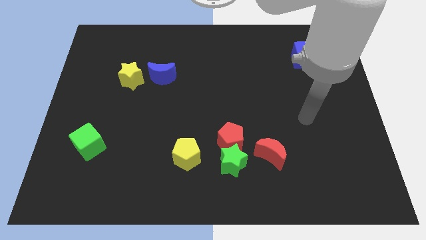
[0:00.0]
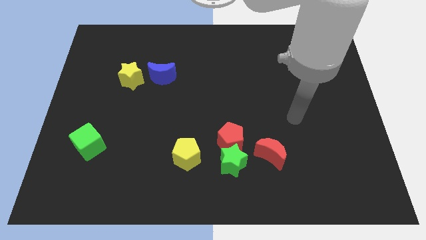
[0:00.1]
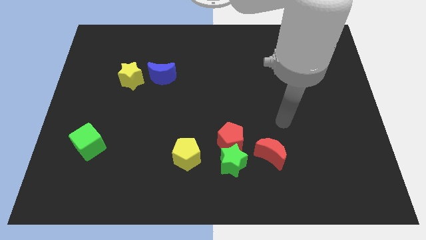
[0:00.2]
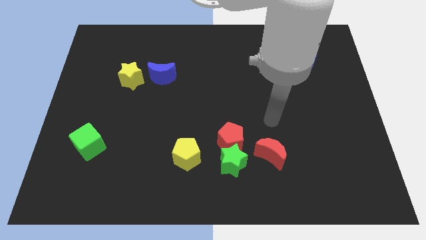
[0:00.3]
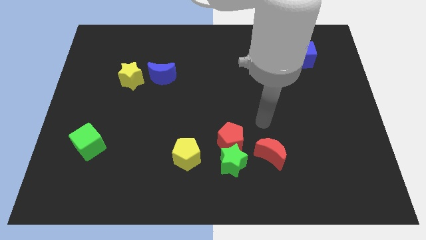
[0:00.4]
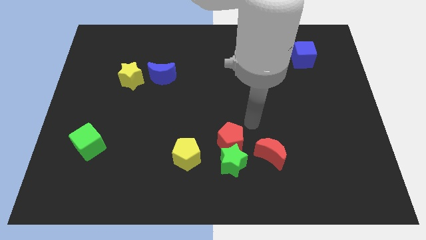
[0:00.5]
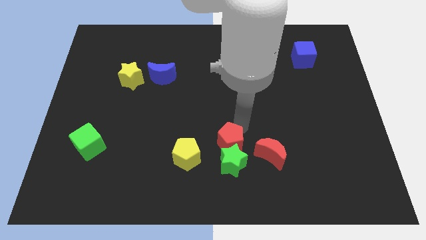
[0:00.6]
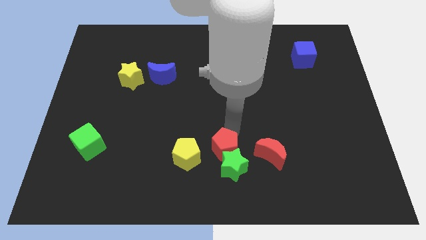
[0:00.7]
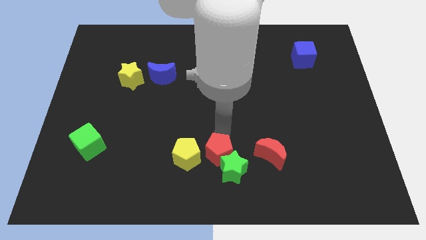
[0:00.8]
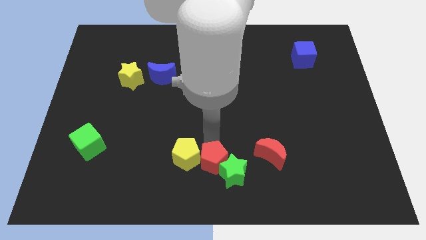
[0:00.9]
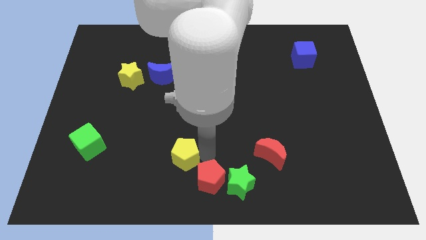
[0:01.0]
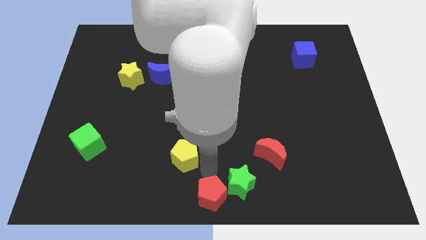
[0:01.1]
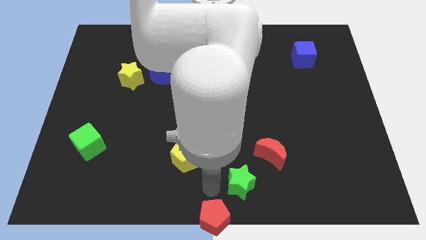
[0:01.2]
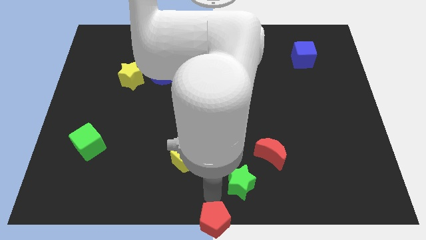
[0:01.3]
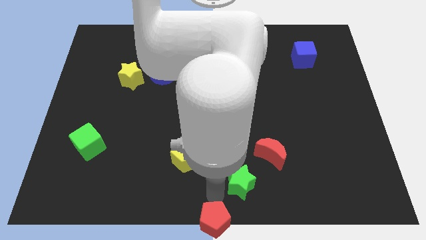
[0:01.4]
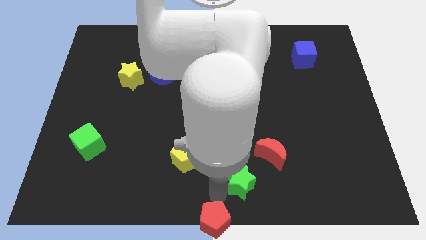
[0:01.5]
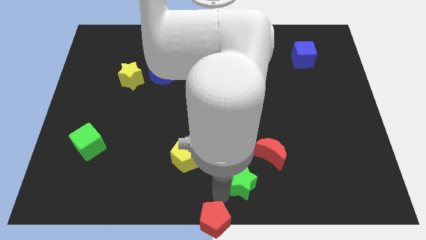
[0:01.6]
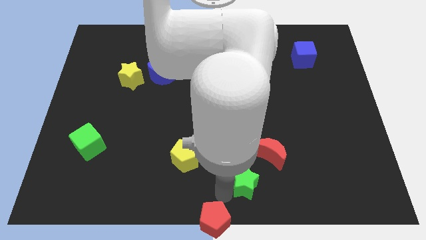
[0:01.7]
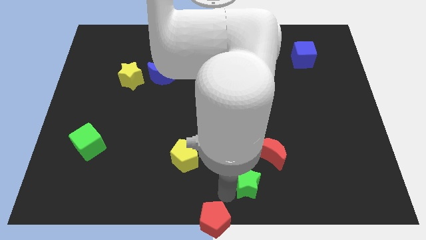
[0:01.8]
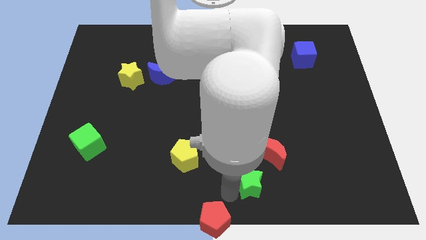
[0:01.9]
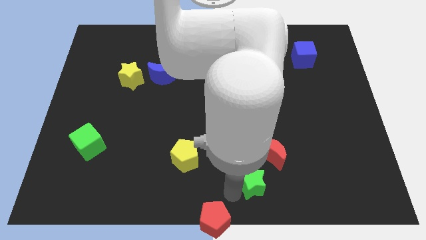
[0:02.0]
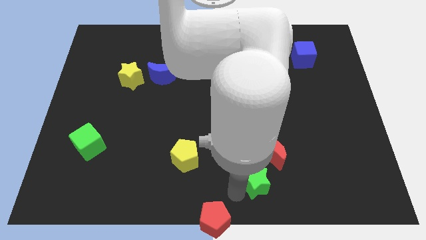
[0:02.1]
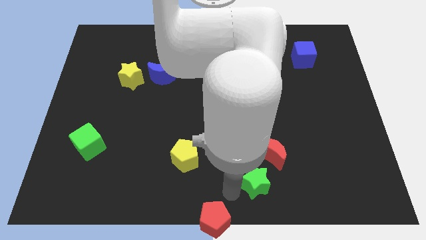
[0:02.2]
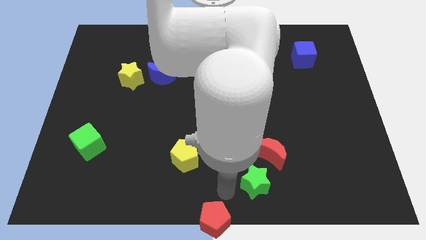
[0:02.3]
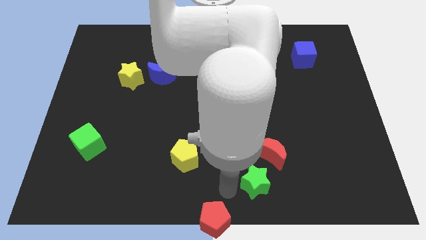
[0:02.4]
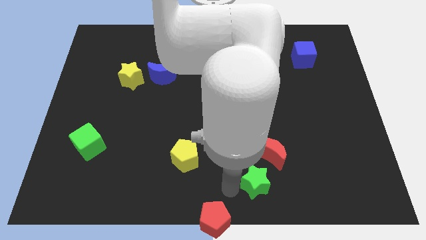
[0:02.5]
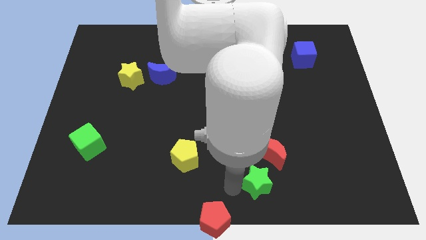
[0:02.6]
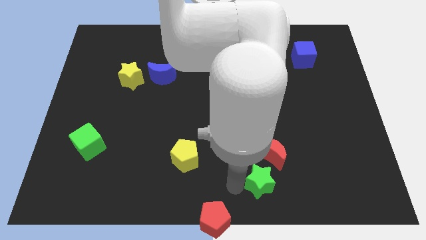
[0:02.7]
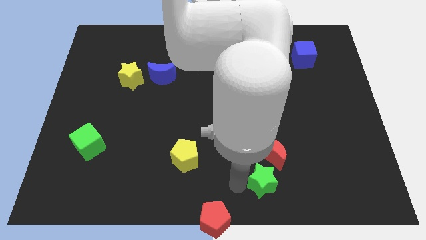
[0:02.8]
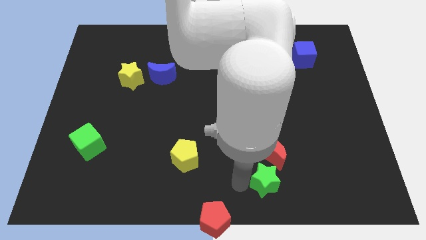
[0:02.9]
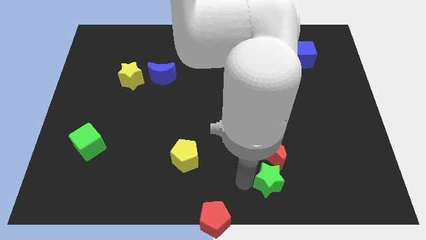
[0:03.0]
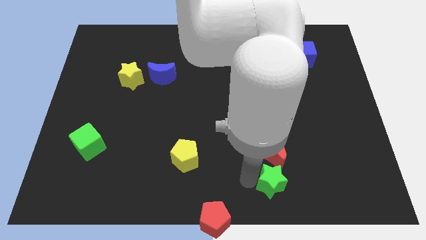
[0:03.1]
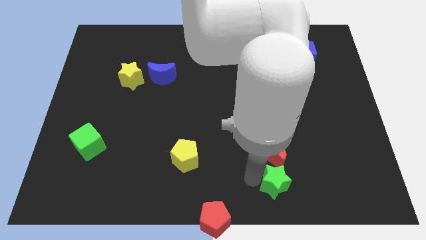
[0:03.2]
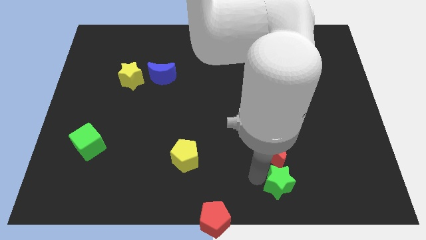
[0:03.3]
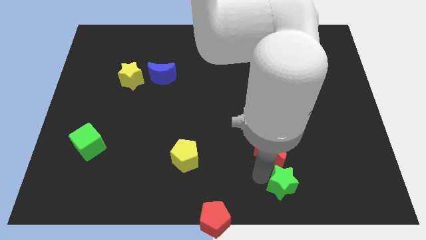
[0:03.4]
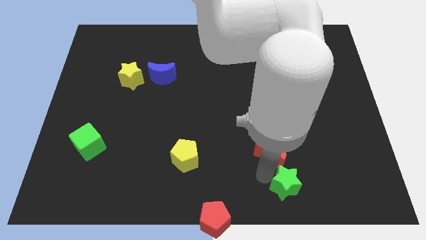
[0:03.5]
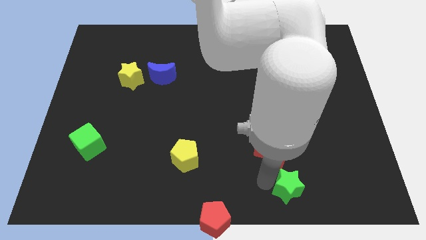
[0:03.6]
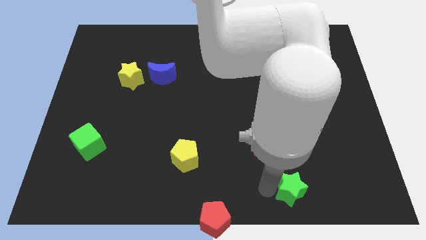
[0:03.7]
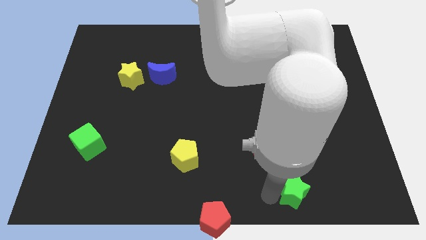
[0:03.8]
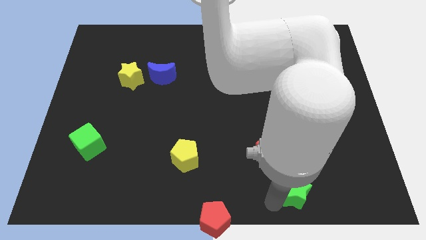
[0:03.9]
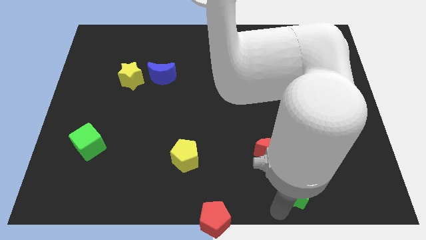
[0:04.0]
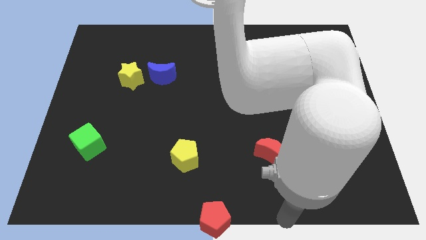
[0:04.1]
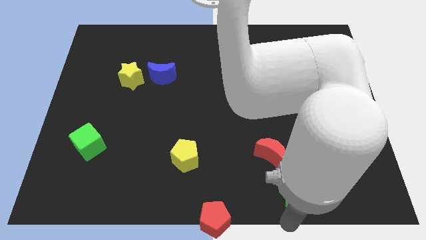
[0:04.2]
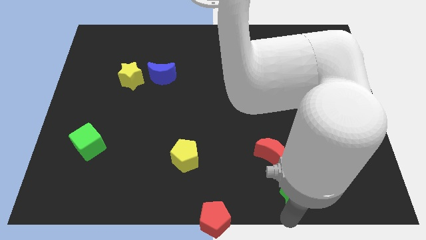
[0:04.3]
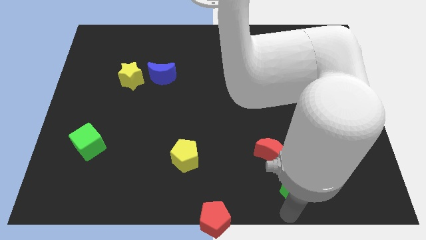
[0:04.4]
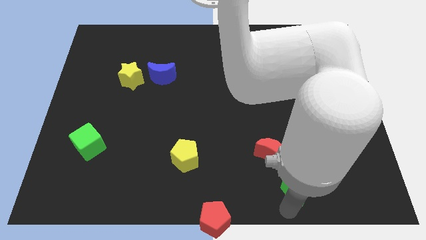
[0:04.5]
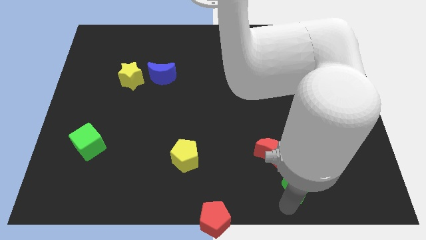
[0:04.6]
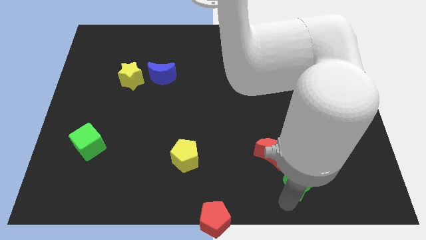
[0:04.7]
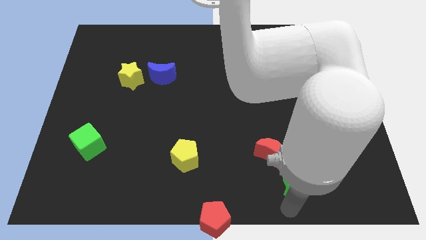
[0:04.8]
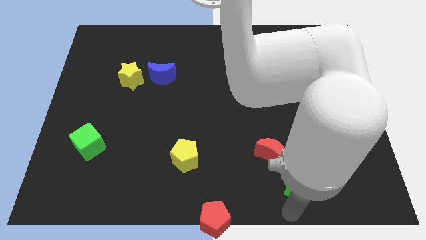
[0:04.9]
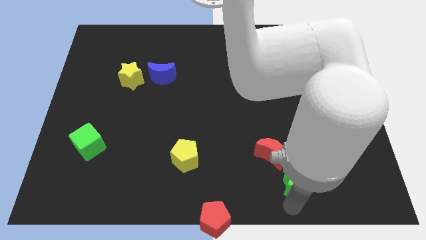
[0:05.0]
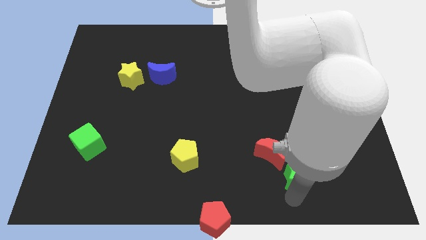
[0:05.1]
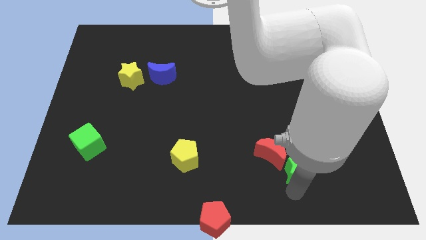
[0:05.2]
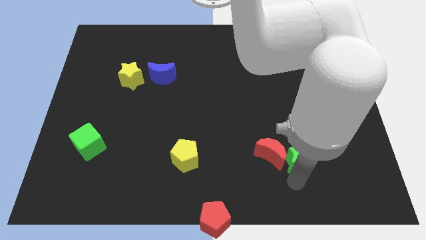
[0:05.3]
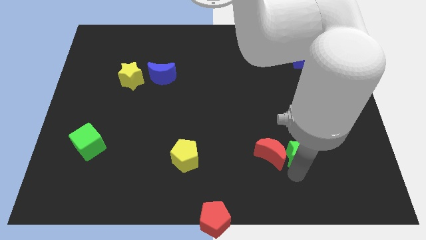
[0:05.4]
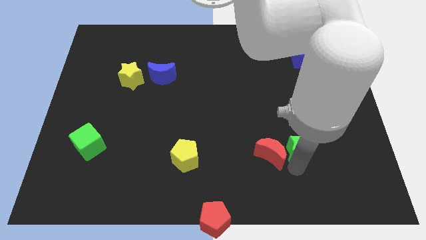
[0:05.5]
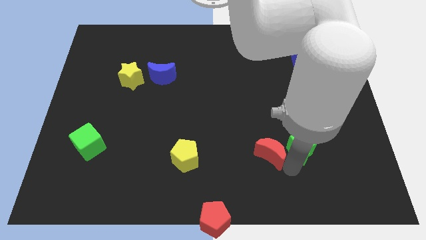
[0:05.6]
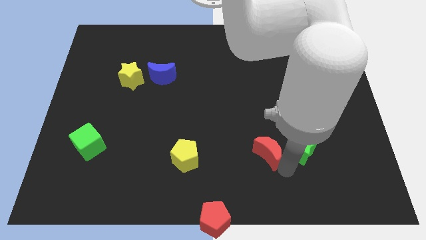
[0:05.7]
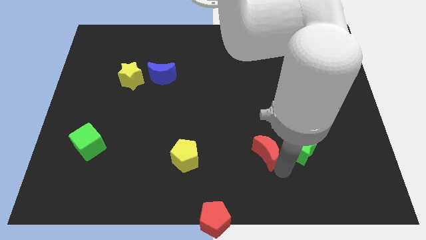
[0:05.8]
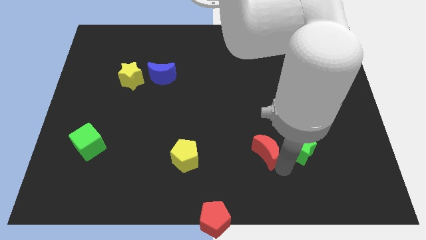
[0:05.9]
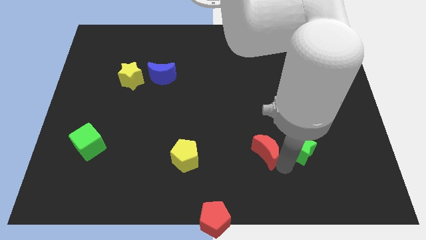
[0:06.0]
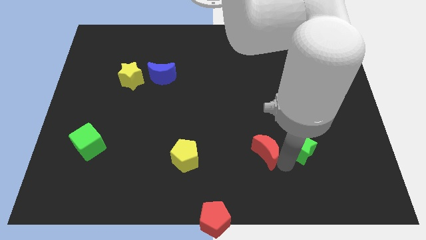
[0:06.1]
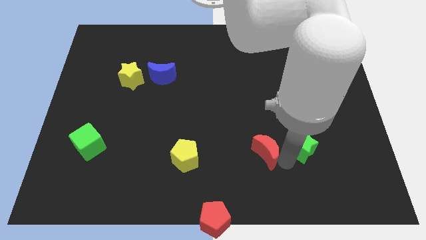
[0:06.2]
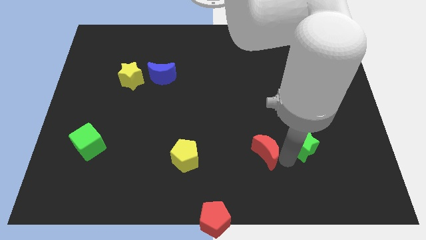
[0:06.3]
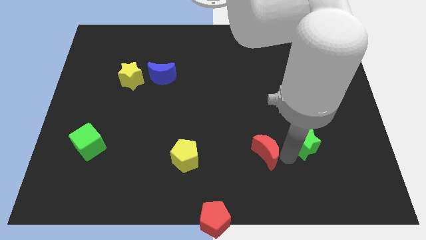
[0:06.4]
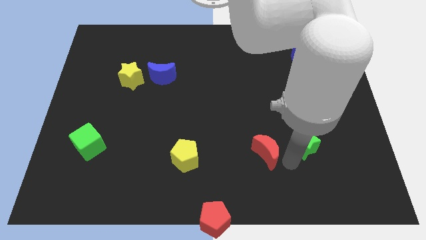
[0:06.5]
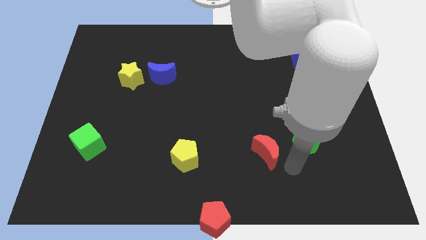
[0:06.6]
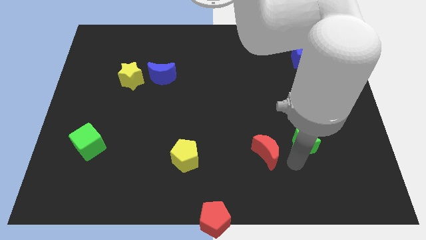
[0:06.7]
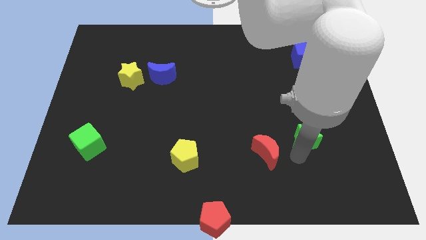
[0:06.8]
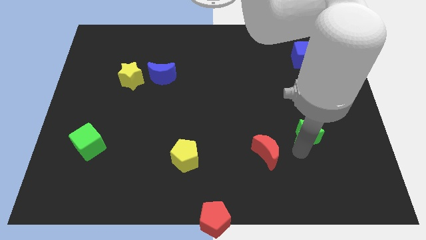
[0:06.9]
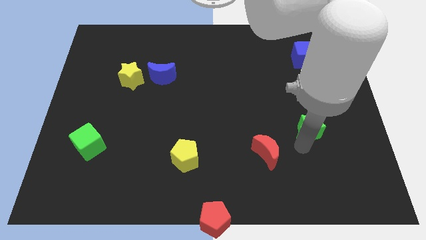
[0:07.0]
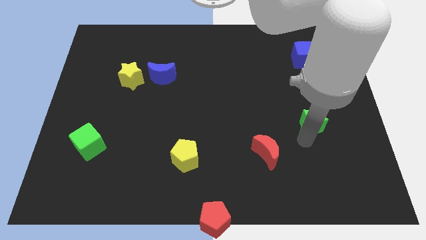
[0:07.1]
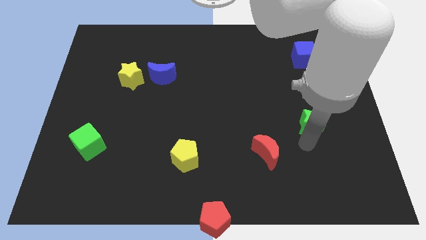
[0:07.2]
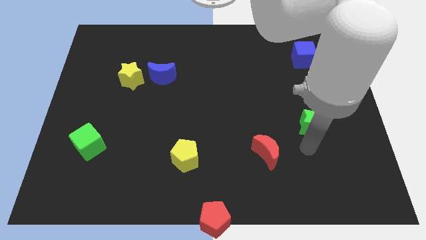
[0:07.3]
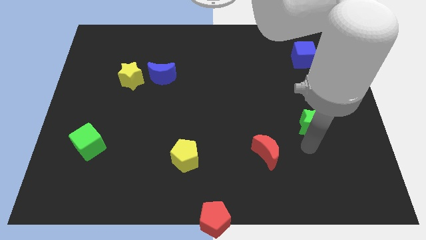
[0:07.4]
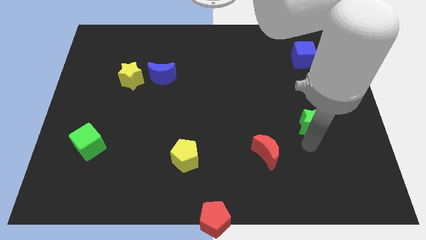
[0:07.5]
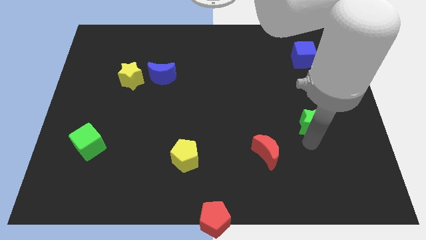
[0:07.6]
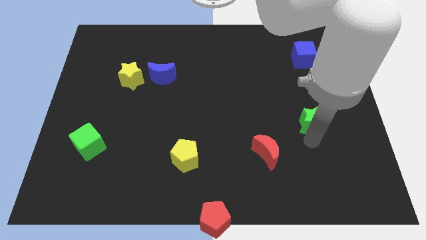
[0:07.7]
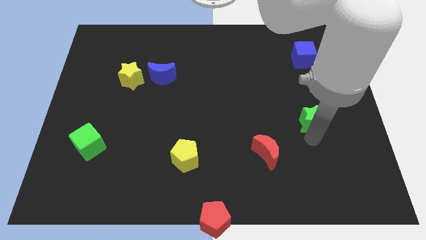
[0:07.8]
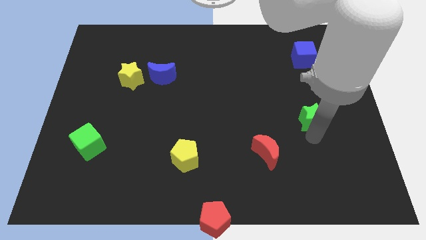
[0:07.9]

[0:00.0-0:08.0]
push the green star upwards and to the right diagonally
